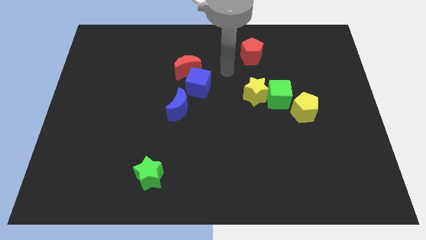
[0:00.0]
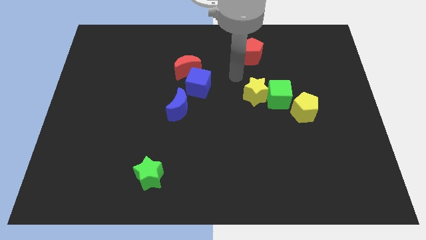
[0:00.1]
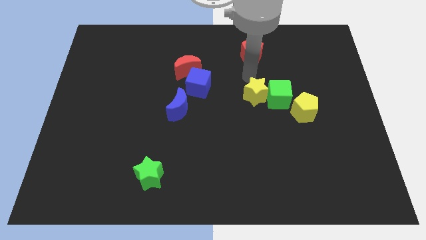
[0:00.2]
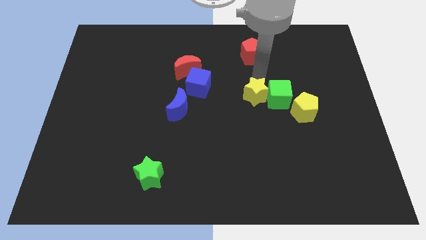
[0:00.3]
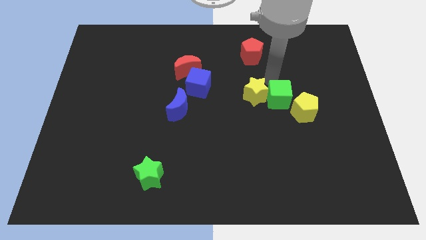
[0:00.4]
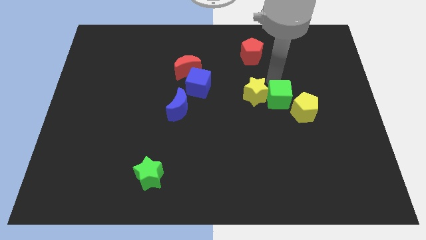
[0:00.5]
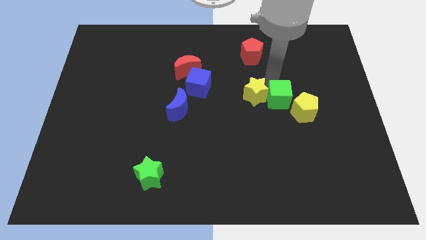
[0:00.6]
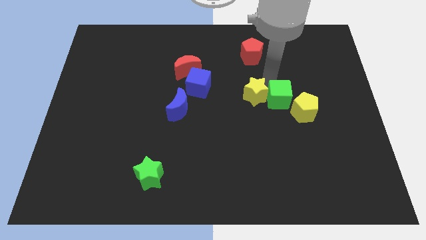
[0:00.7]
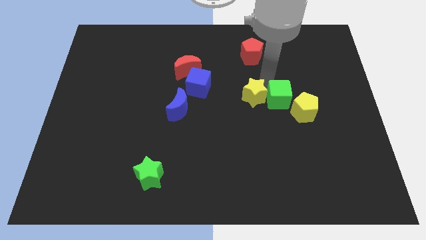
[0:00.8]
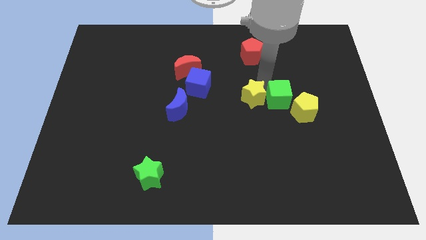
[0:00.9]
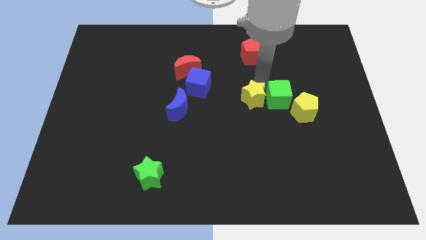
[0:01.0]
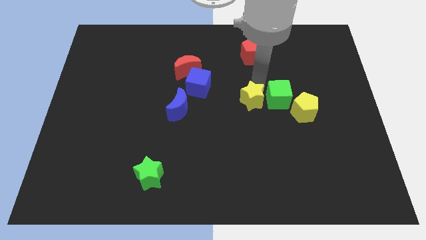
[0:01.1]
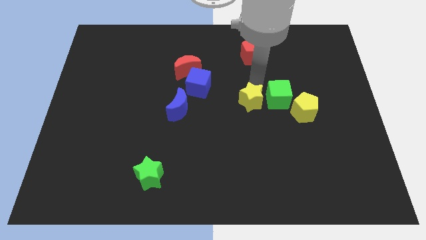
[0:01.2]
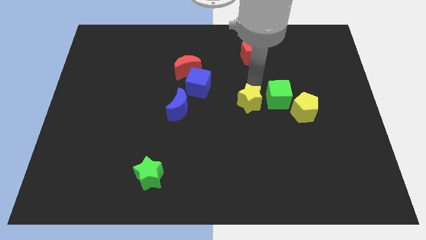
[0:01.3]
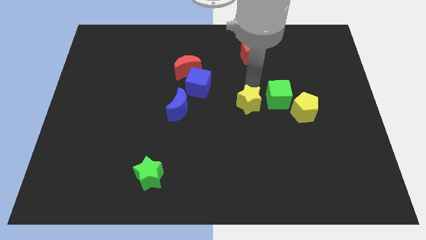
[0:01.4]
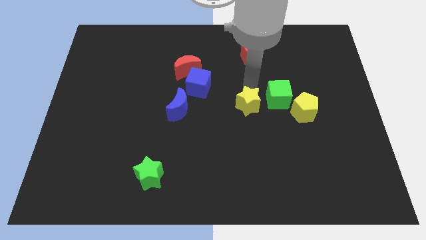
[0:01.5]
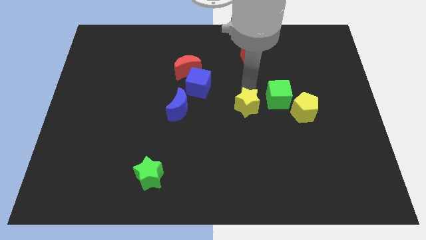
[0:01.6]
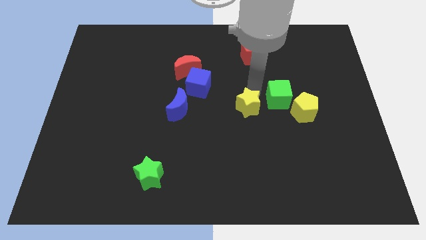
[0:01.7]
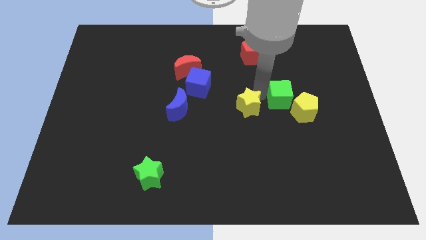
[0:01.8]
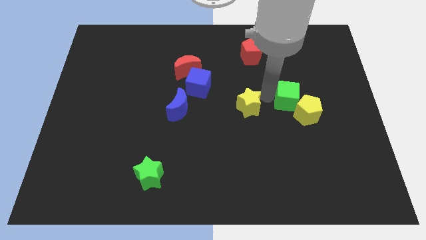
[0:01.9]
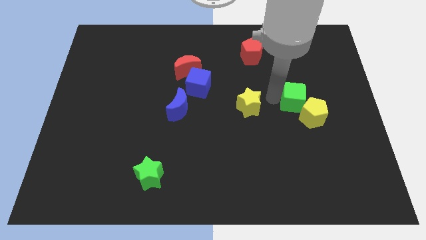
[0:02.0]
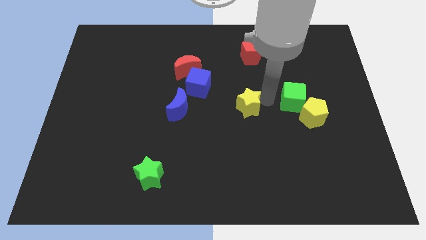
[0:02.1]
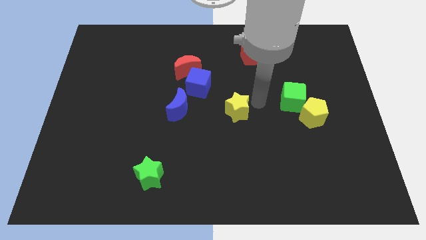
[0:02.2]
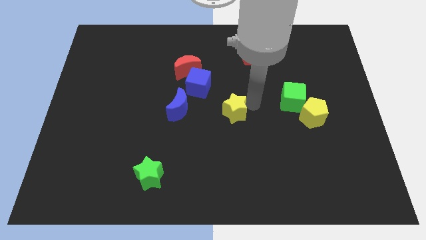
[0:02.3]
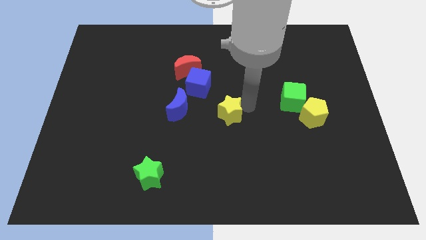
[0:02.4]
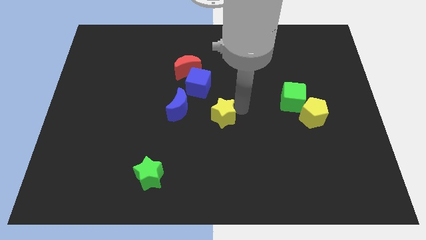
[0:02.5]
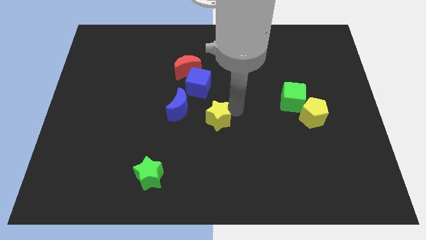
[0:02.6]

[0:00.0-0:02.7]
push the yellow star a little to the left

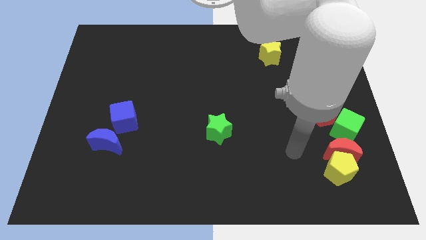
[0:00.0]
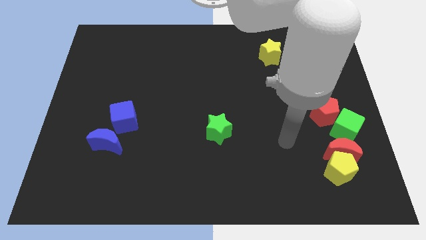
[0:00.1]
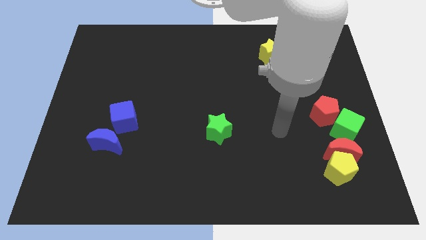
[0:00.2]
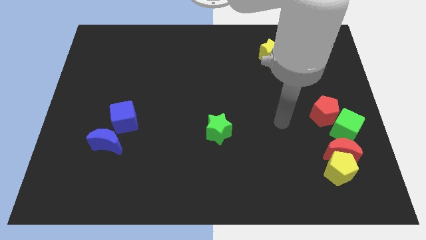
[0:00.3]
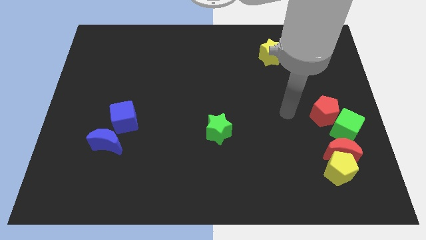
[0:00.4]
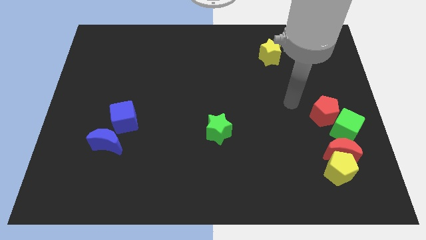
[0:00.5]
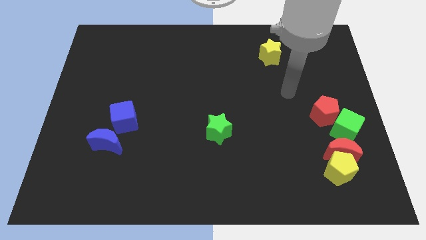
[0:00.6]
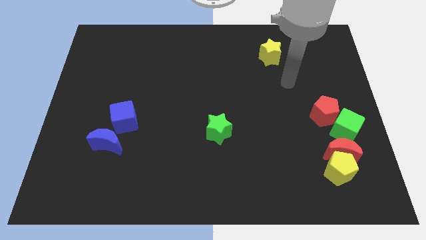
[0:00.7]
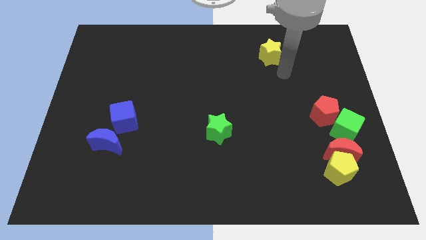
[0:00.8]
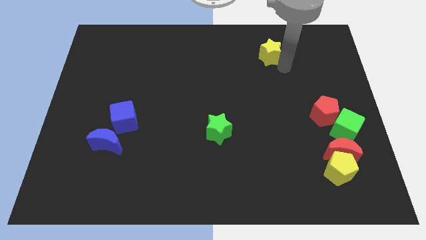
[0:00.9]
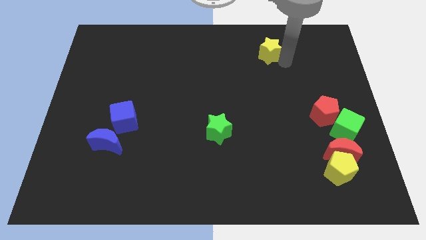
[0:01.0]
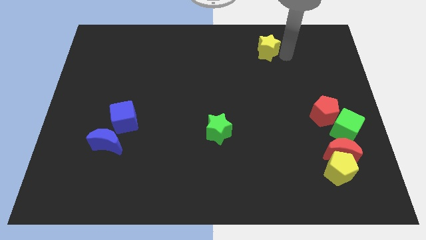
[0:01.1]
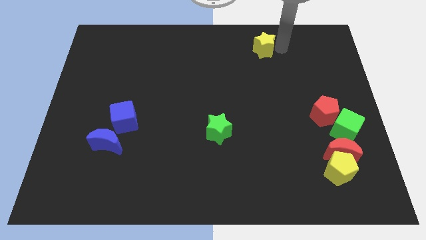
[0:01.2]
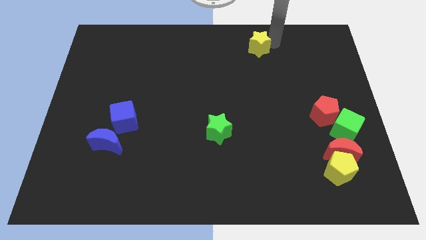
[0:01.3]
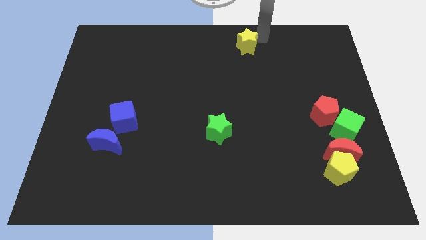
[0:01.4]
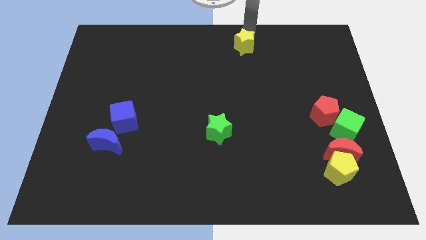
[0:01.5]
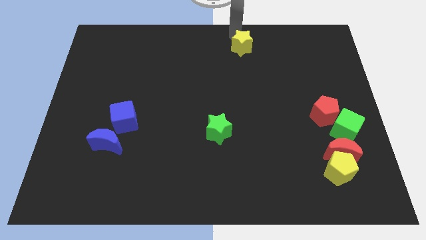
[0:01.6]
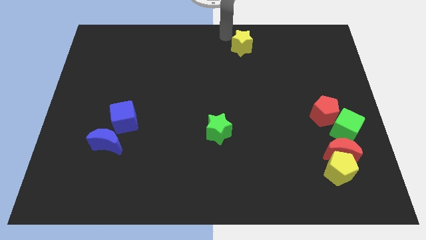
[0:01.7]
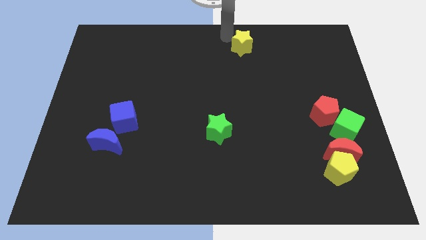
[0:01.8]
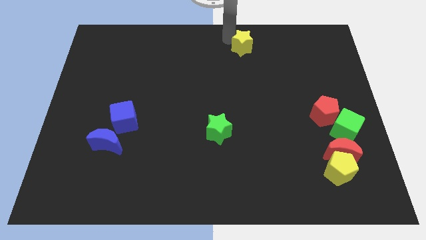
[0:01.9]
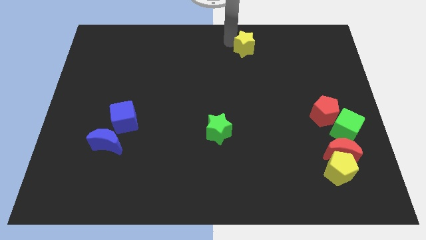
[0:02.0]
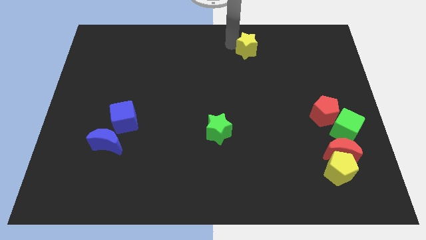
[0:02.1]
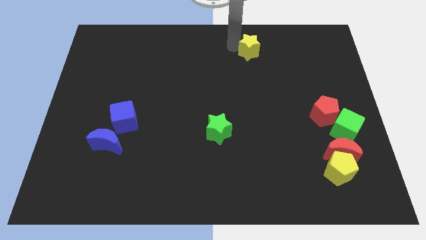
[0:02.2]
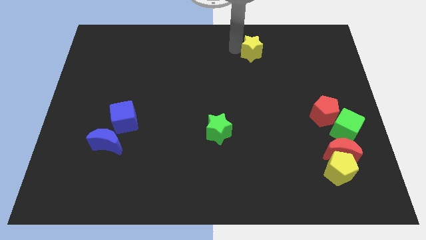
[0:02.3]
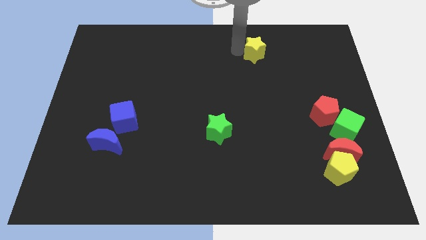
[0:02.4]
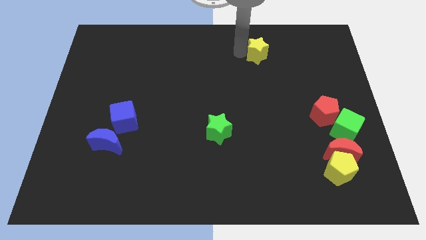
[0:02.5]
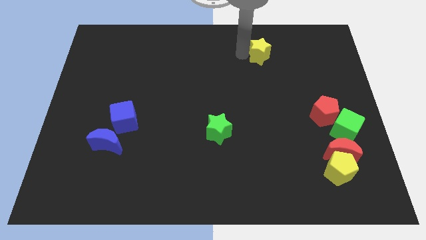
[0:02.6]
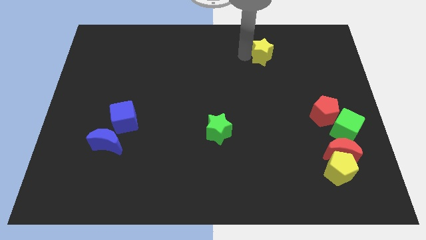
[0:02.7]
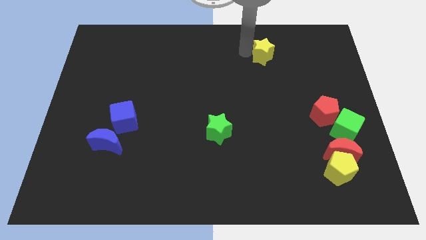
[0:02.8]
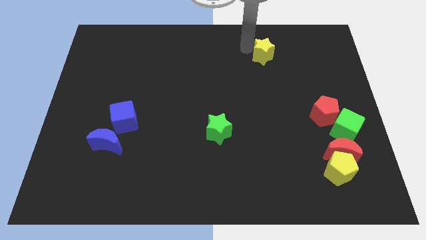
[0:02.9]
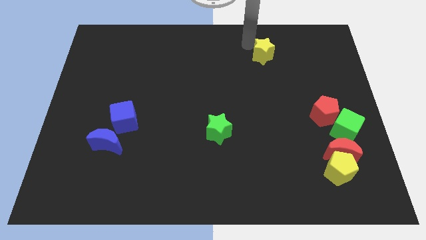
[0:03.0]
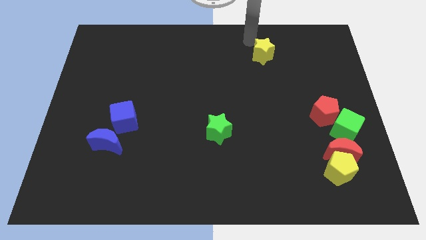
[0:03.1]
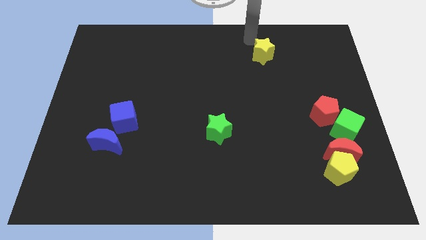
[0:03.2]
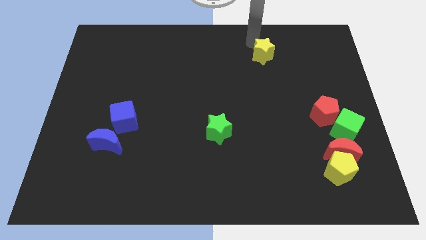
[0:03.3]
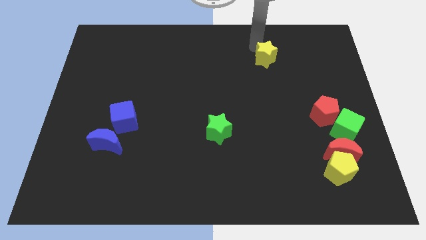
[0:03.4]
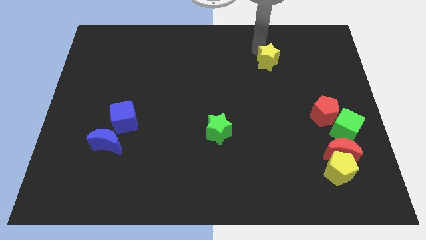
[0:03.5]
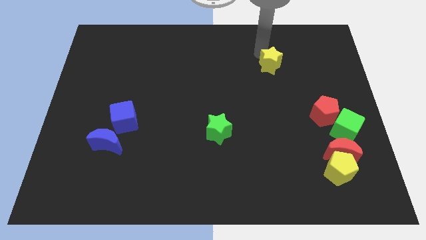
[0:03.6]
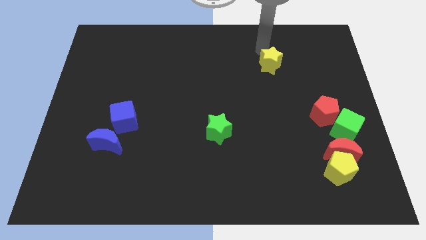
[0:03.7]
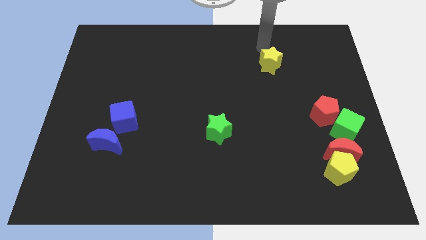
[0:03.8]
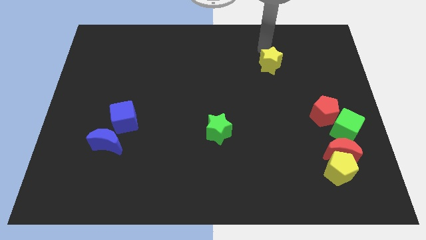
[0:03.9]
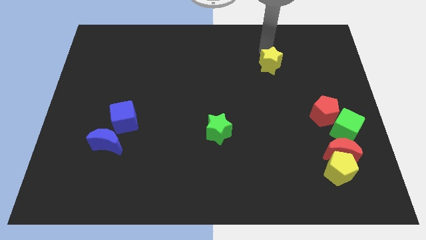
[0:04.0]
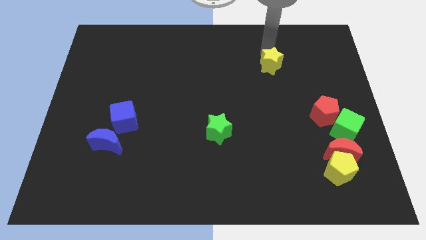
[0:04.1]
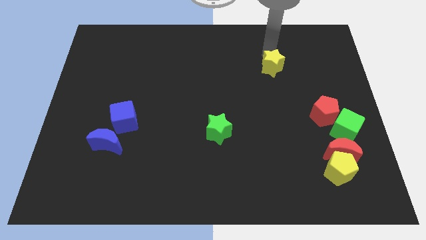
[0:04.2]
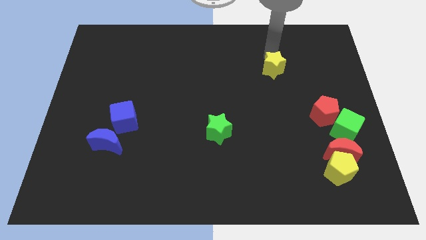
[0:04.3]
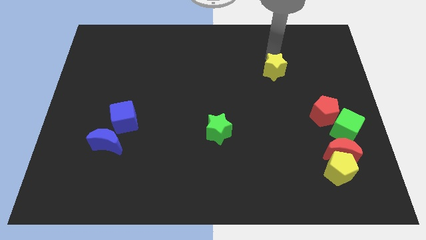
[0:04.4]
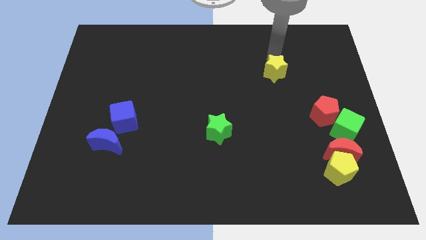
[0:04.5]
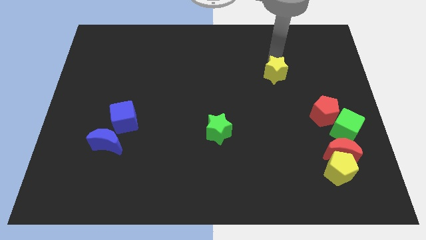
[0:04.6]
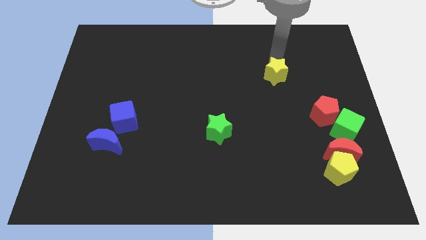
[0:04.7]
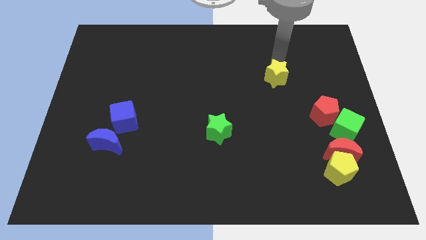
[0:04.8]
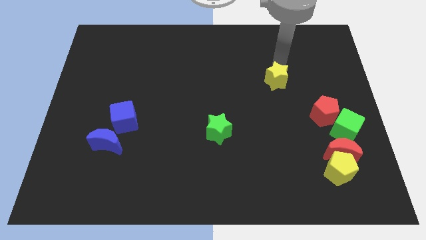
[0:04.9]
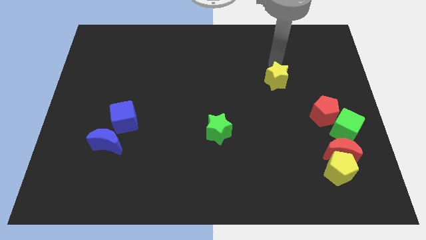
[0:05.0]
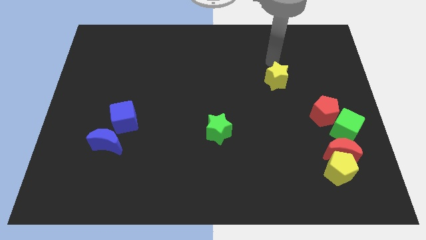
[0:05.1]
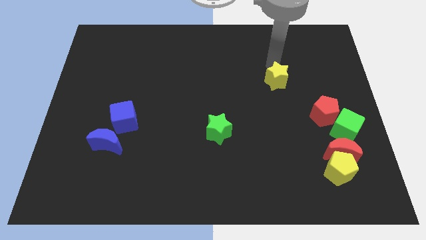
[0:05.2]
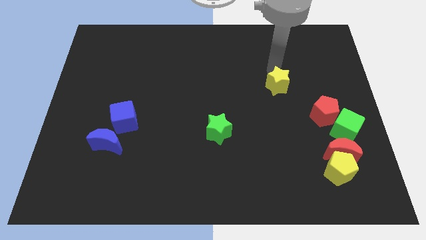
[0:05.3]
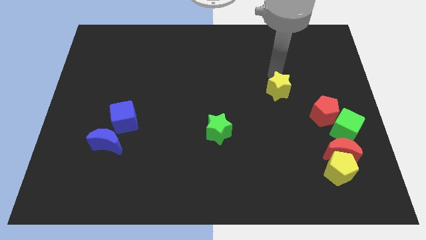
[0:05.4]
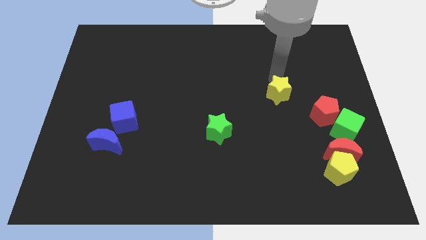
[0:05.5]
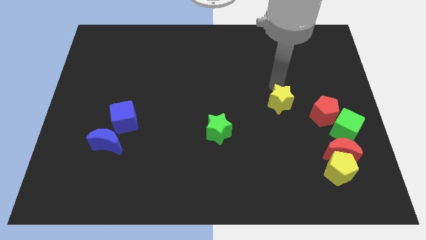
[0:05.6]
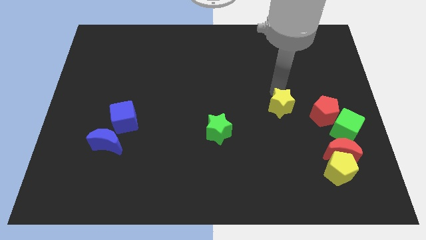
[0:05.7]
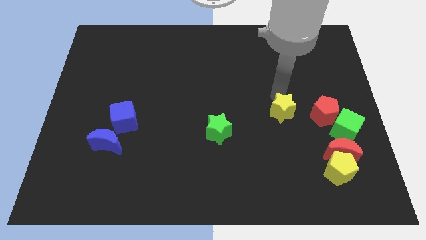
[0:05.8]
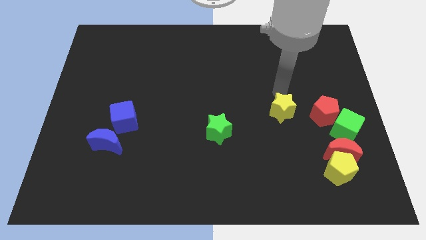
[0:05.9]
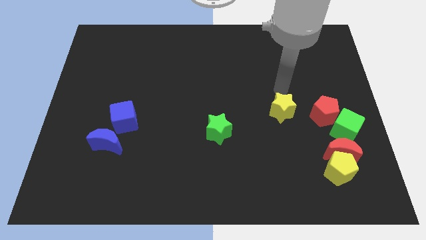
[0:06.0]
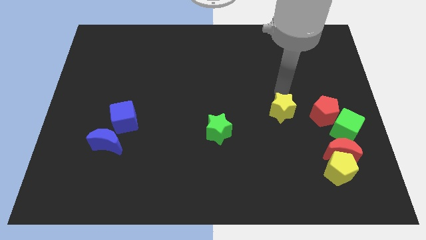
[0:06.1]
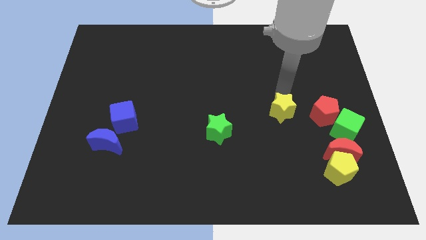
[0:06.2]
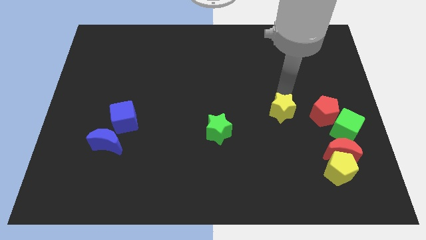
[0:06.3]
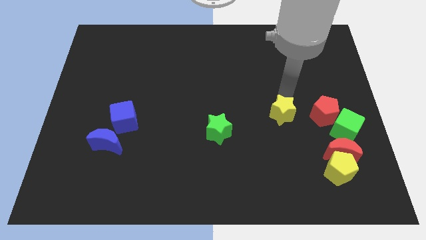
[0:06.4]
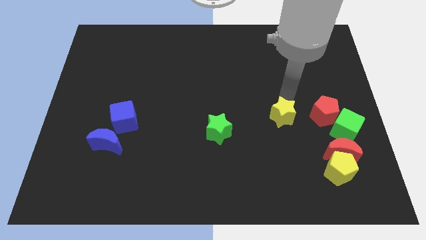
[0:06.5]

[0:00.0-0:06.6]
move the yellow star downwards
